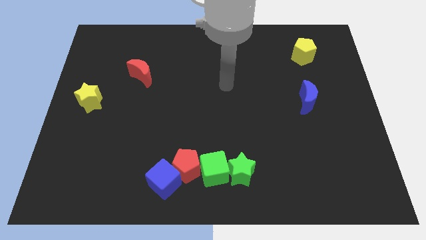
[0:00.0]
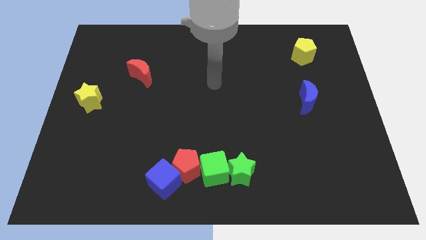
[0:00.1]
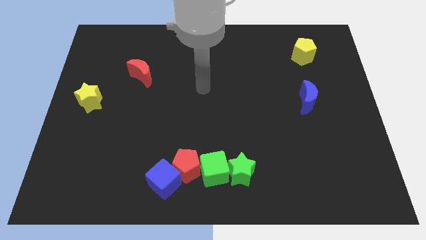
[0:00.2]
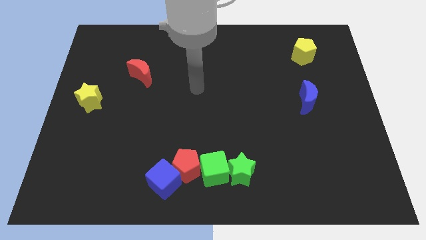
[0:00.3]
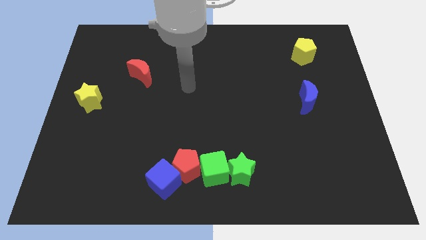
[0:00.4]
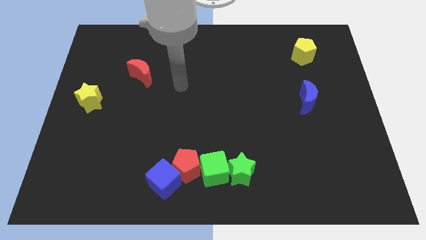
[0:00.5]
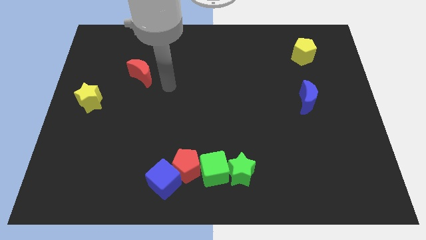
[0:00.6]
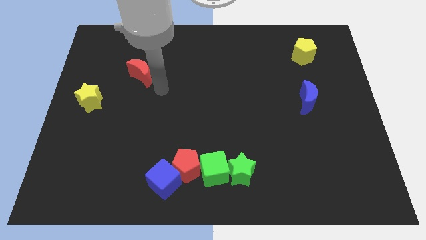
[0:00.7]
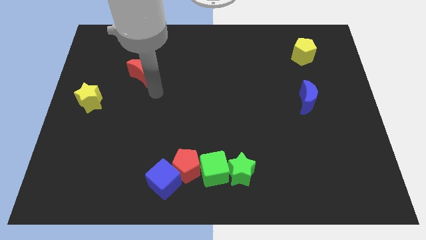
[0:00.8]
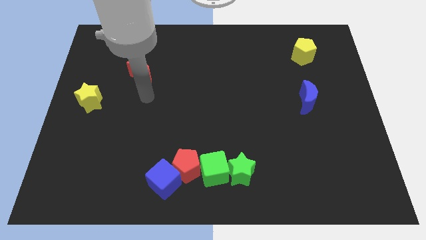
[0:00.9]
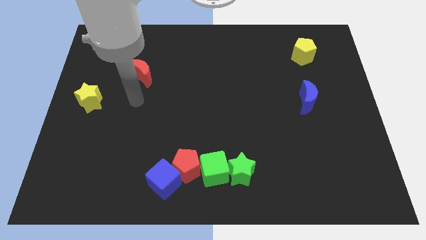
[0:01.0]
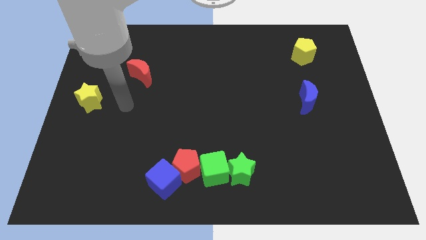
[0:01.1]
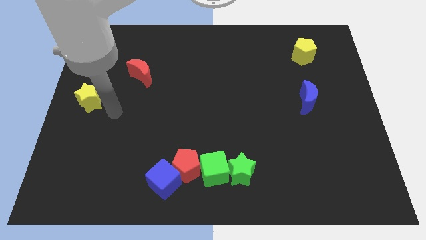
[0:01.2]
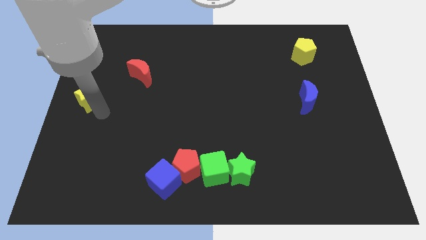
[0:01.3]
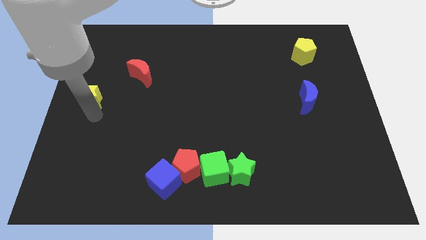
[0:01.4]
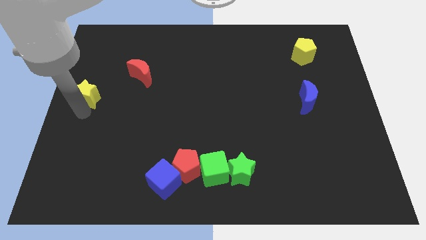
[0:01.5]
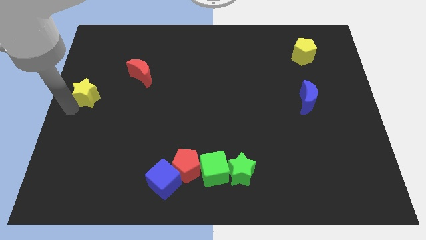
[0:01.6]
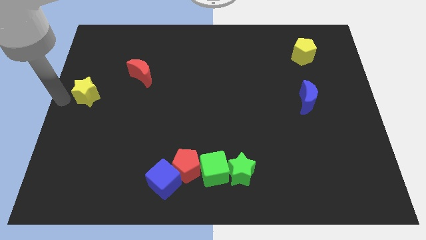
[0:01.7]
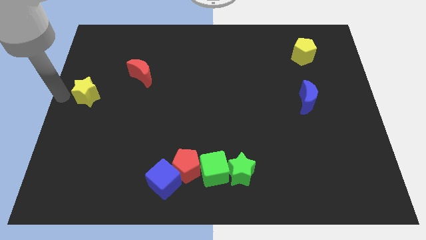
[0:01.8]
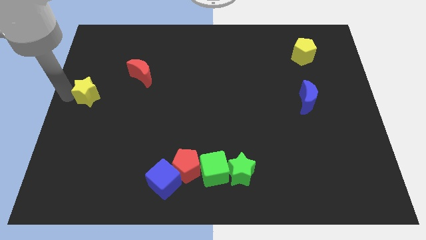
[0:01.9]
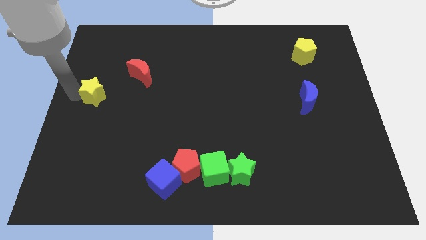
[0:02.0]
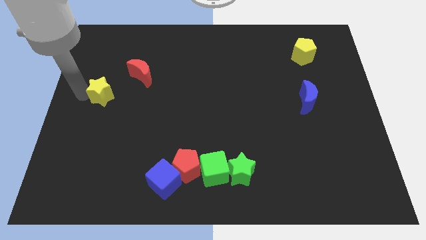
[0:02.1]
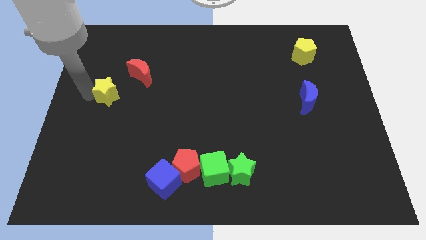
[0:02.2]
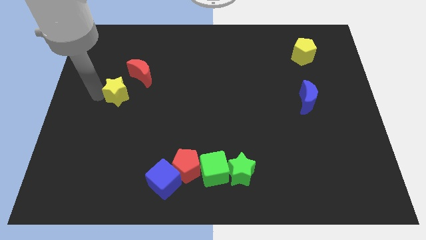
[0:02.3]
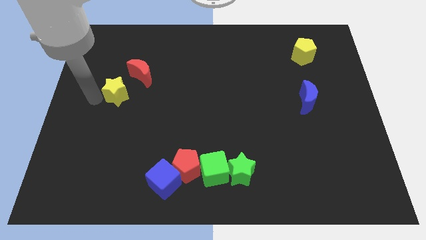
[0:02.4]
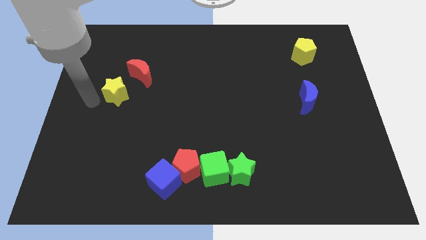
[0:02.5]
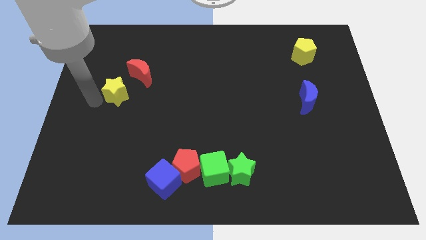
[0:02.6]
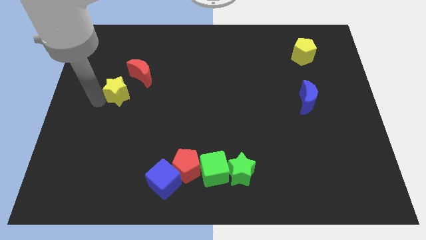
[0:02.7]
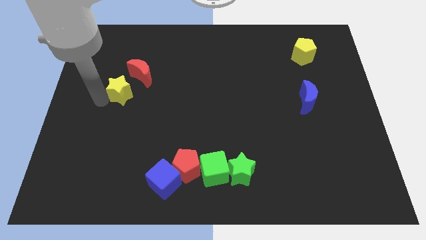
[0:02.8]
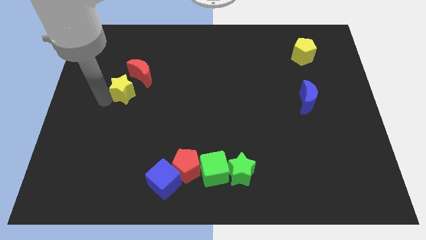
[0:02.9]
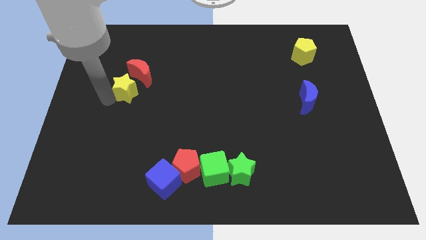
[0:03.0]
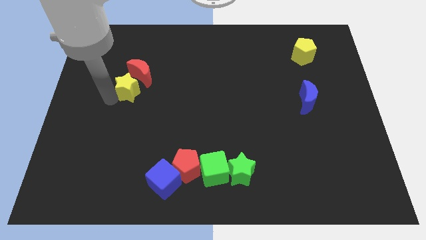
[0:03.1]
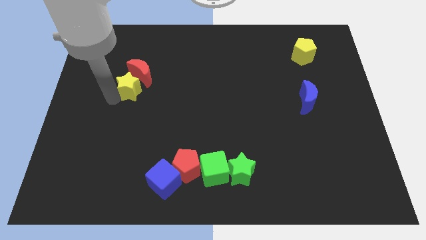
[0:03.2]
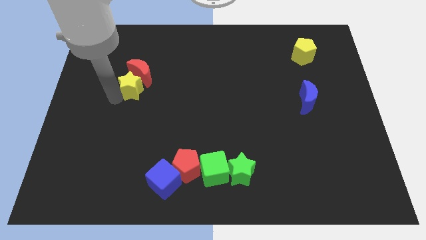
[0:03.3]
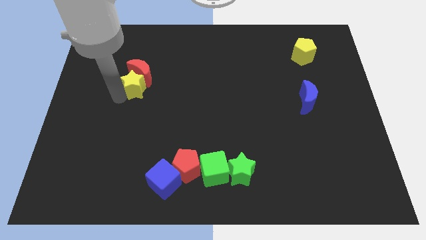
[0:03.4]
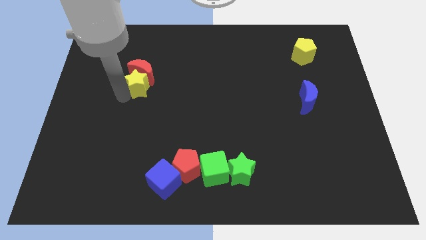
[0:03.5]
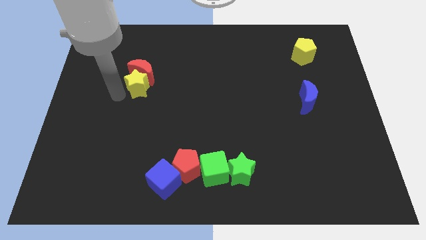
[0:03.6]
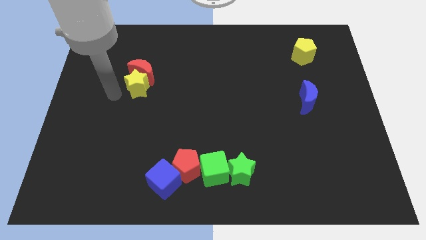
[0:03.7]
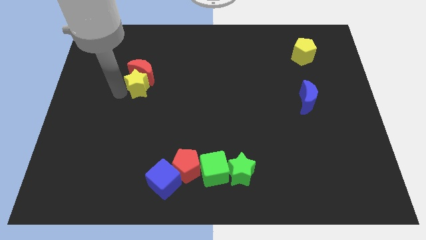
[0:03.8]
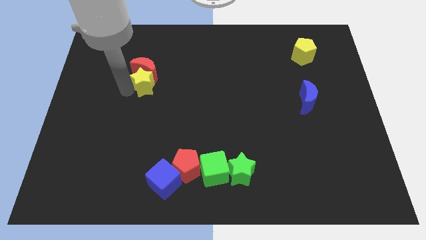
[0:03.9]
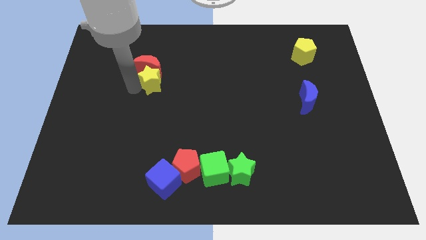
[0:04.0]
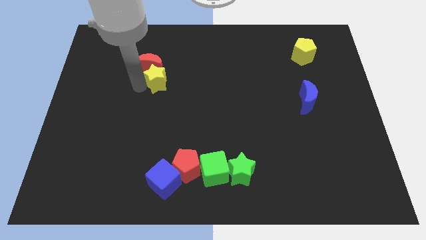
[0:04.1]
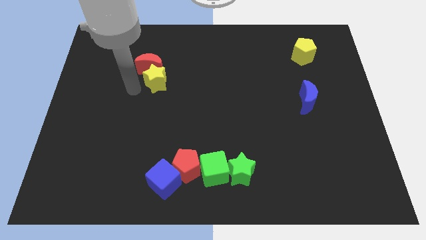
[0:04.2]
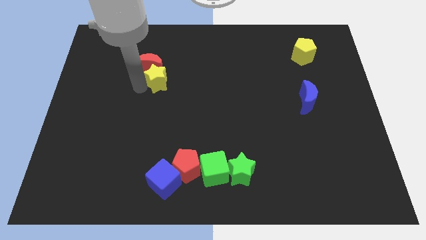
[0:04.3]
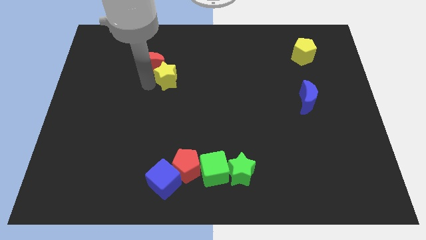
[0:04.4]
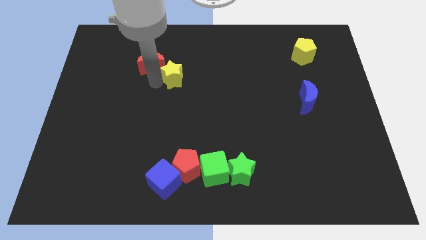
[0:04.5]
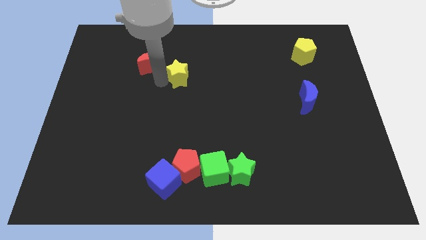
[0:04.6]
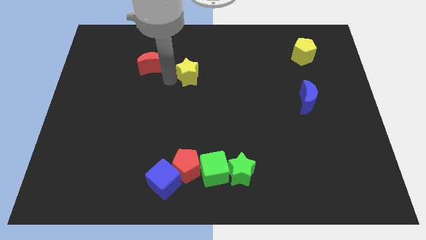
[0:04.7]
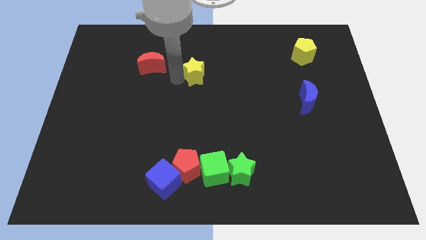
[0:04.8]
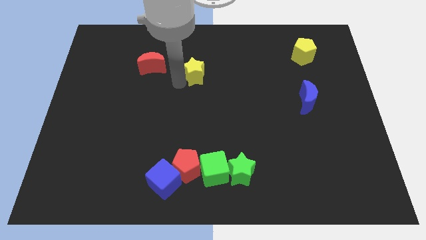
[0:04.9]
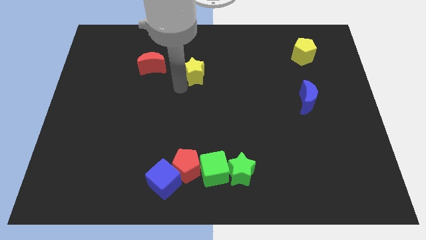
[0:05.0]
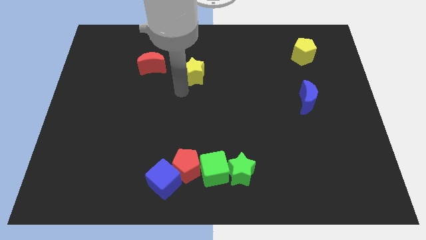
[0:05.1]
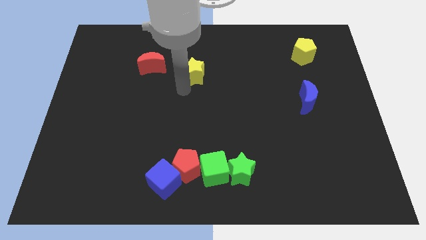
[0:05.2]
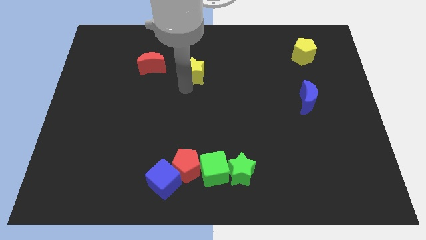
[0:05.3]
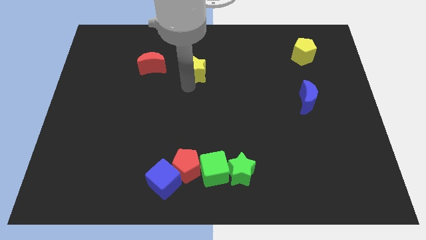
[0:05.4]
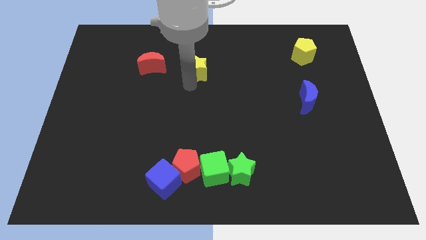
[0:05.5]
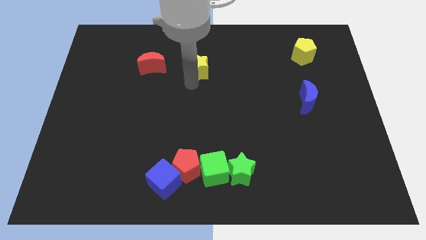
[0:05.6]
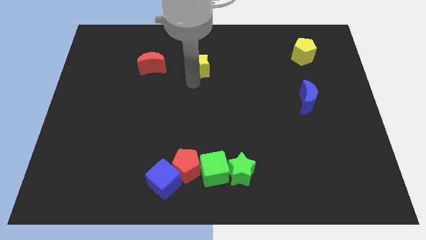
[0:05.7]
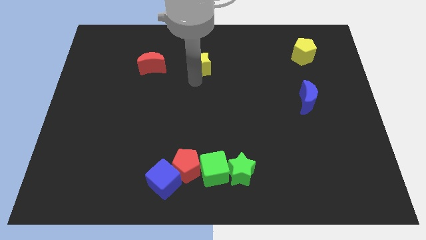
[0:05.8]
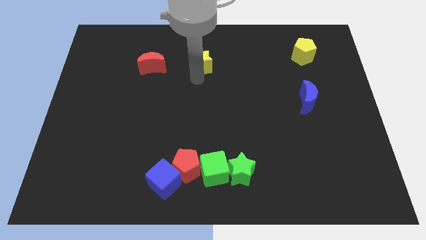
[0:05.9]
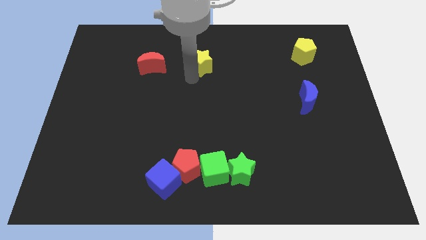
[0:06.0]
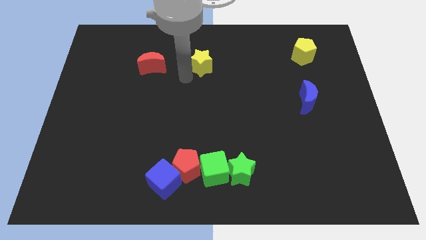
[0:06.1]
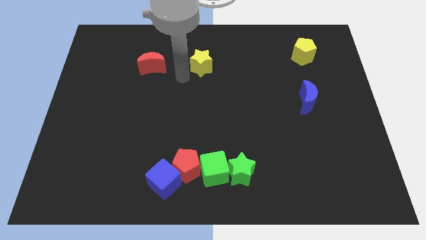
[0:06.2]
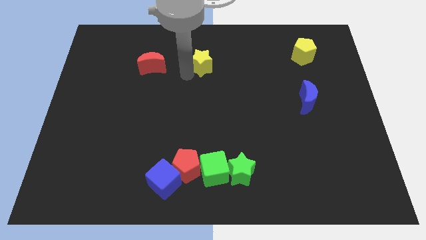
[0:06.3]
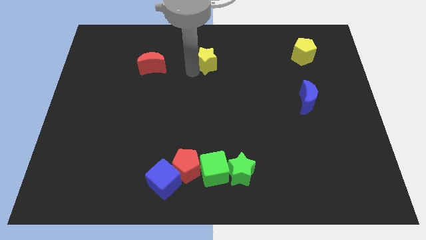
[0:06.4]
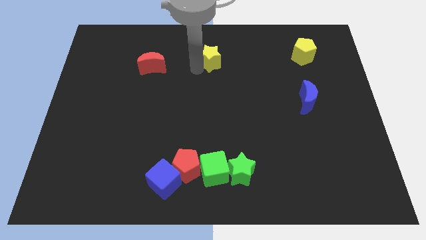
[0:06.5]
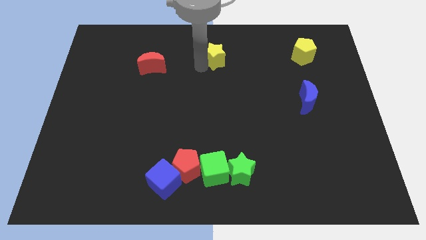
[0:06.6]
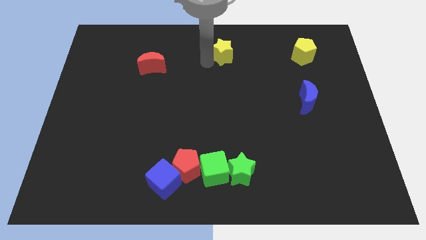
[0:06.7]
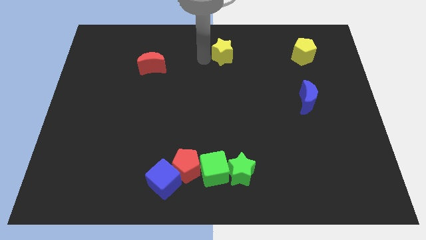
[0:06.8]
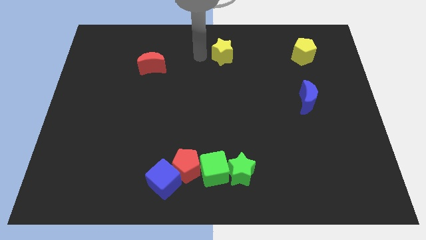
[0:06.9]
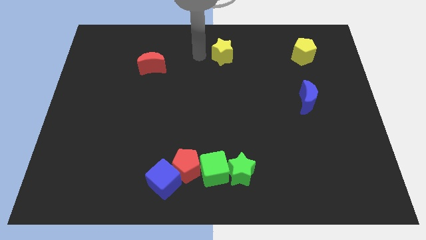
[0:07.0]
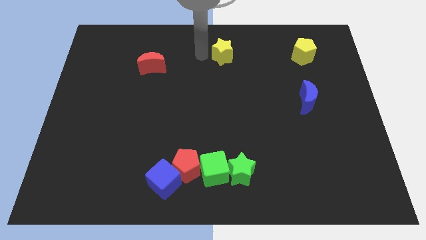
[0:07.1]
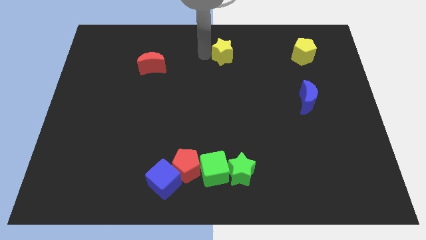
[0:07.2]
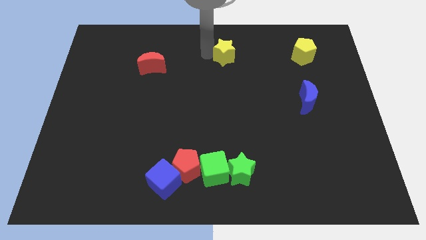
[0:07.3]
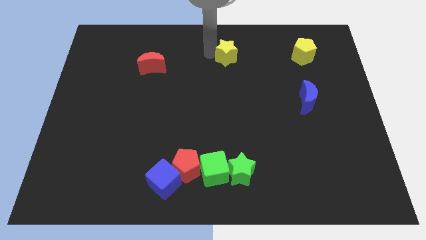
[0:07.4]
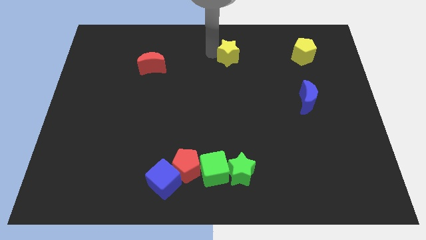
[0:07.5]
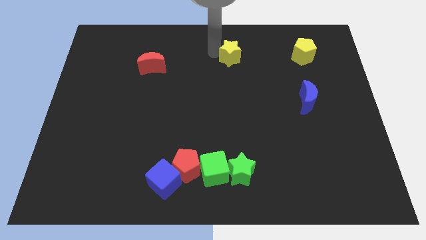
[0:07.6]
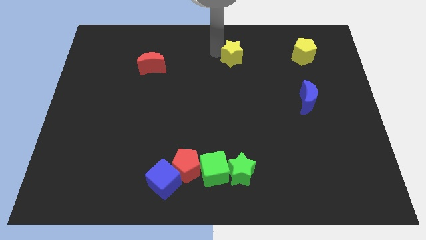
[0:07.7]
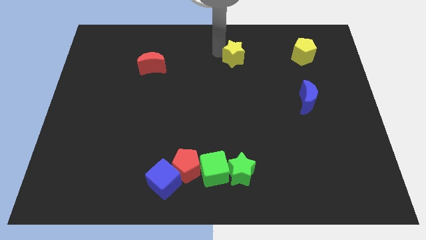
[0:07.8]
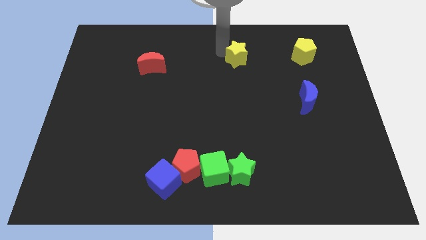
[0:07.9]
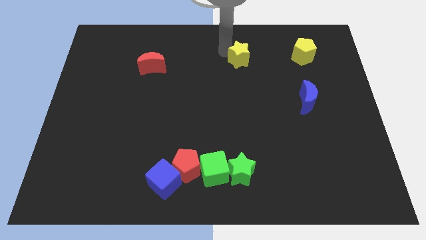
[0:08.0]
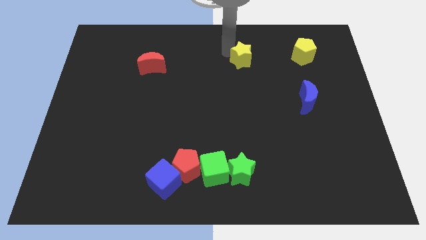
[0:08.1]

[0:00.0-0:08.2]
slide the yellow star to the left side of the yellow pentagon
